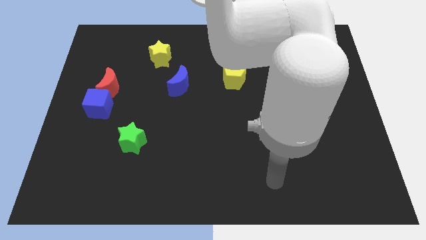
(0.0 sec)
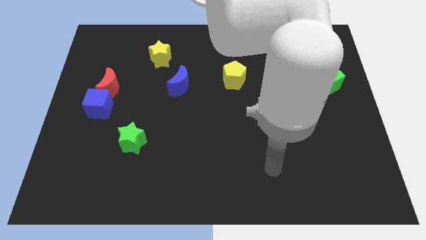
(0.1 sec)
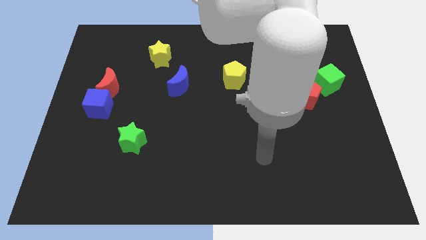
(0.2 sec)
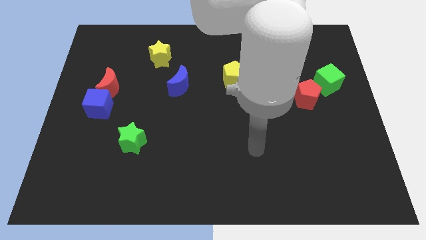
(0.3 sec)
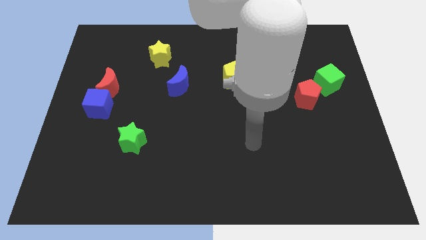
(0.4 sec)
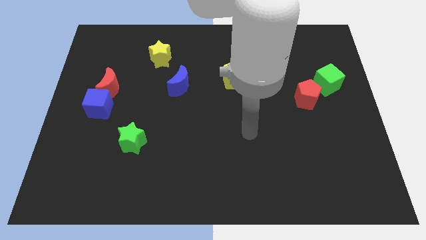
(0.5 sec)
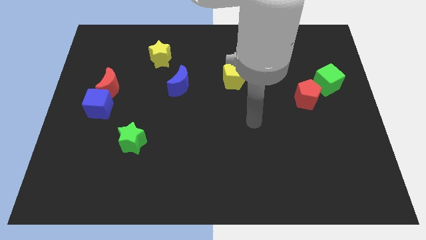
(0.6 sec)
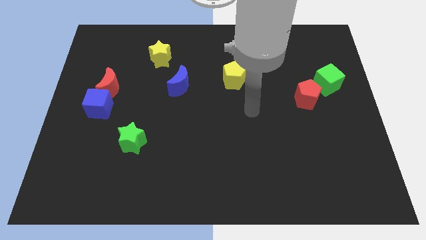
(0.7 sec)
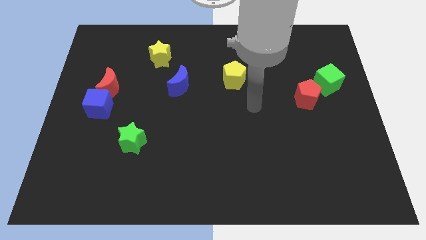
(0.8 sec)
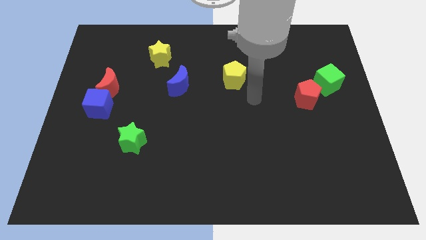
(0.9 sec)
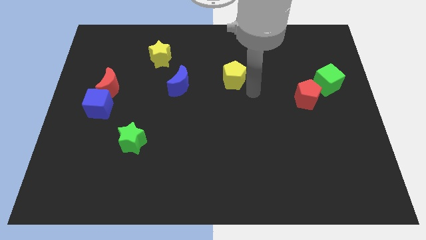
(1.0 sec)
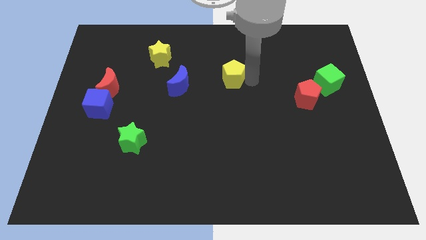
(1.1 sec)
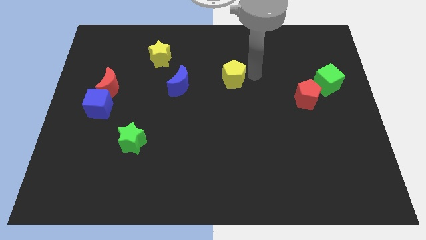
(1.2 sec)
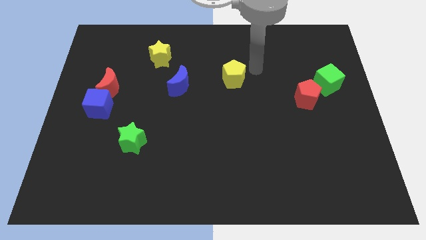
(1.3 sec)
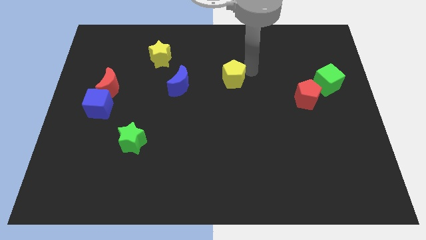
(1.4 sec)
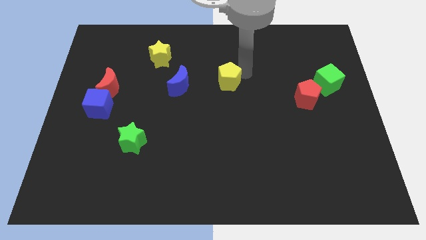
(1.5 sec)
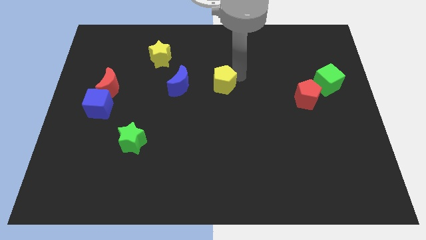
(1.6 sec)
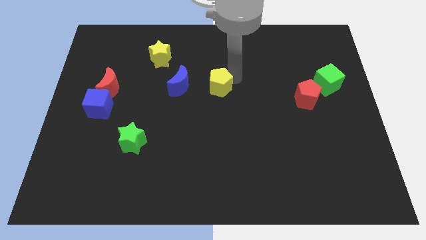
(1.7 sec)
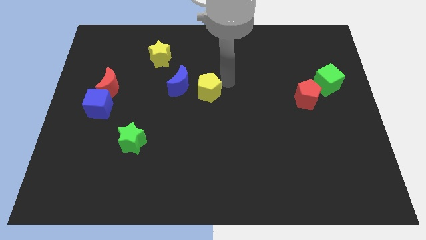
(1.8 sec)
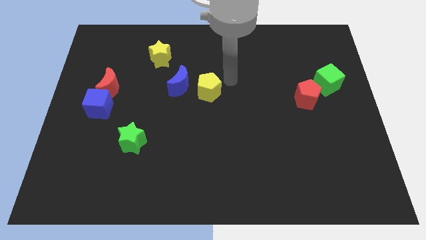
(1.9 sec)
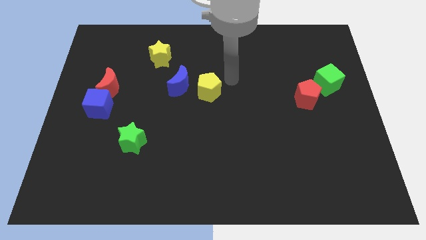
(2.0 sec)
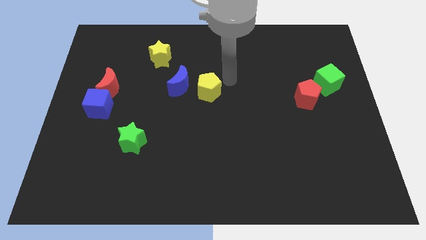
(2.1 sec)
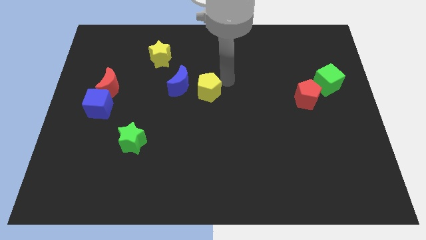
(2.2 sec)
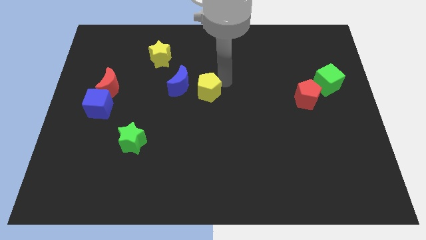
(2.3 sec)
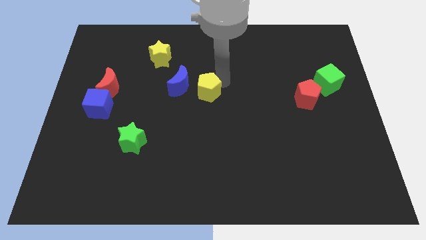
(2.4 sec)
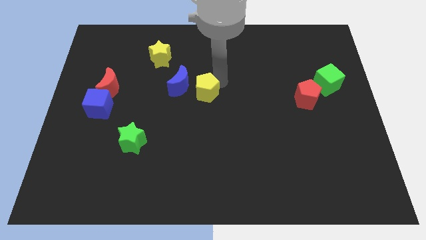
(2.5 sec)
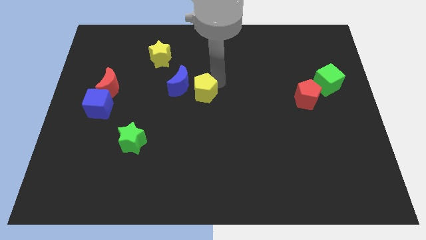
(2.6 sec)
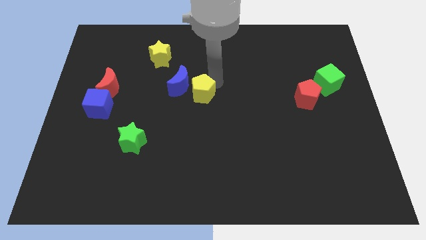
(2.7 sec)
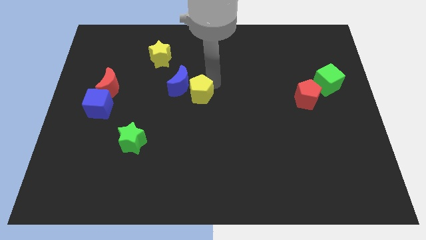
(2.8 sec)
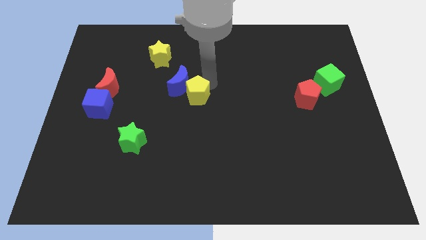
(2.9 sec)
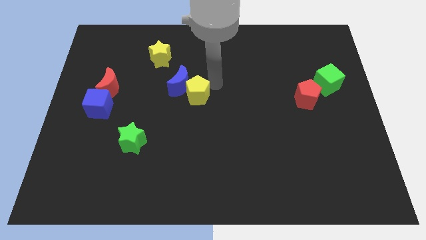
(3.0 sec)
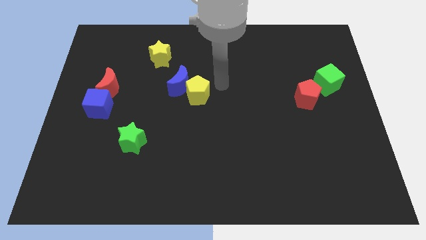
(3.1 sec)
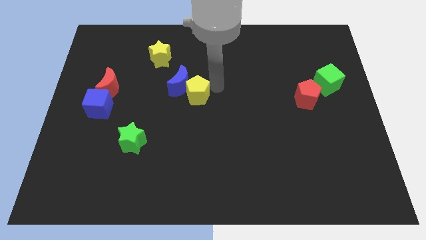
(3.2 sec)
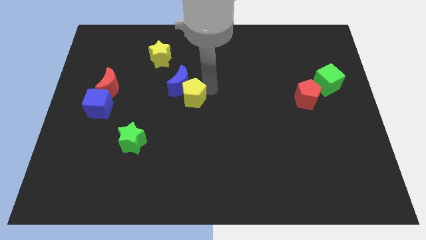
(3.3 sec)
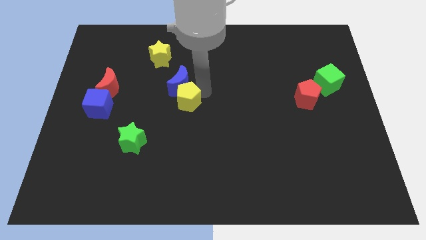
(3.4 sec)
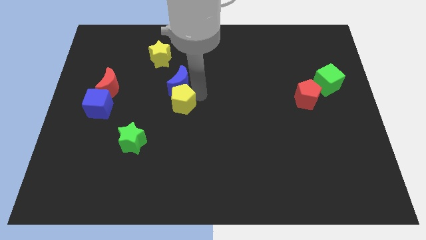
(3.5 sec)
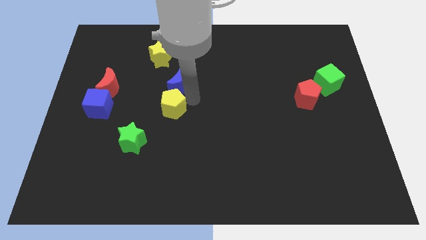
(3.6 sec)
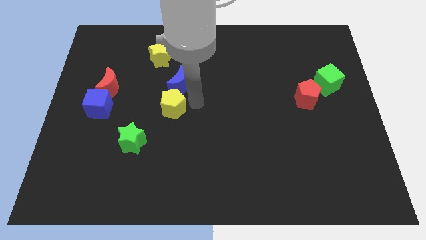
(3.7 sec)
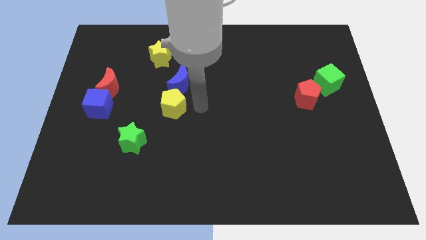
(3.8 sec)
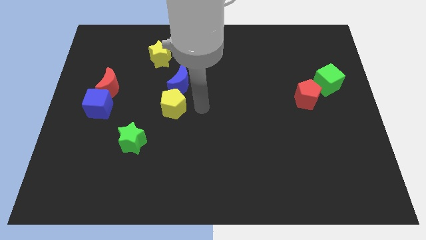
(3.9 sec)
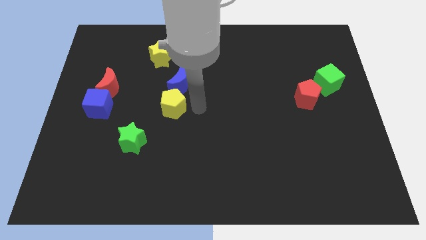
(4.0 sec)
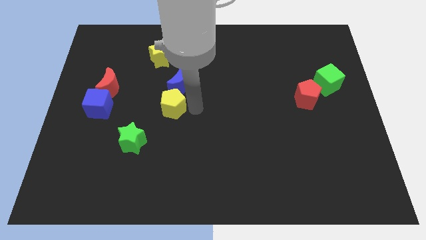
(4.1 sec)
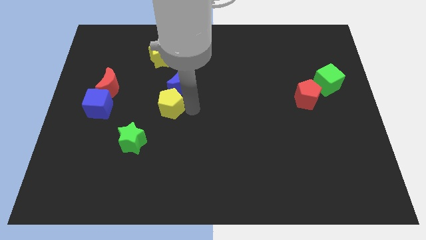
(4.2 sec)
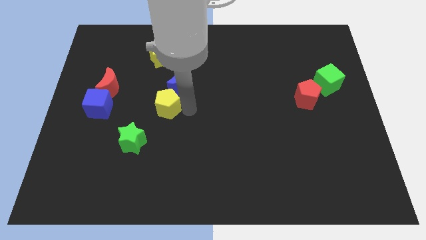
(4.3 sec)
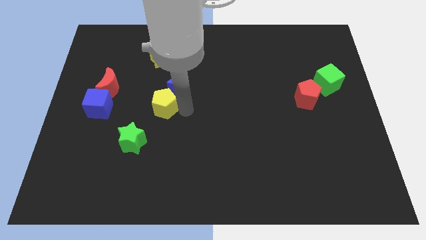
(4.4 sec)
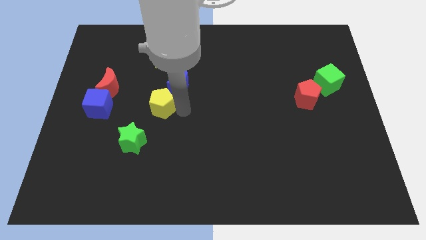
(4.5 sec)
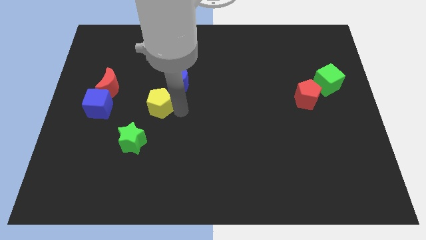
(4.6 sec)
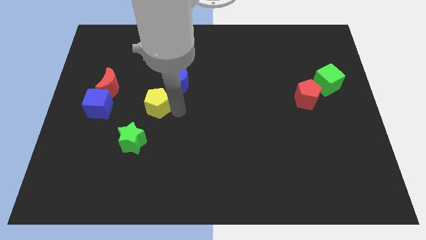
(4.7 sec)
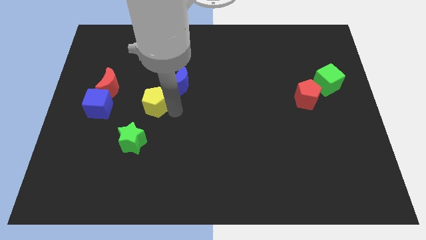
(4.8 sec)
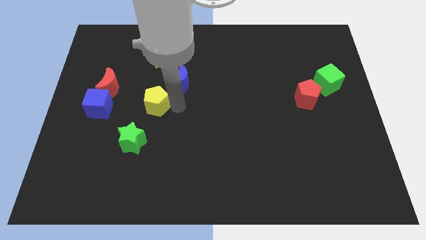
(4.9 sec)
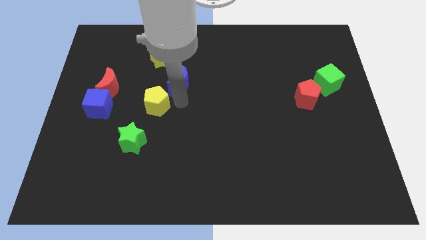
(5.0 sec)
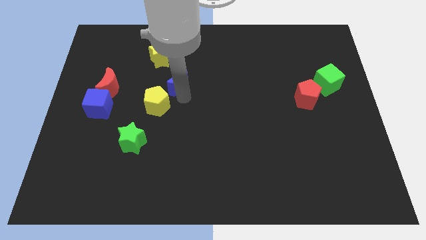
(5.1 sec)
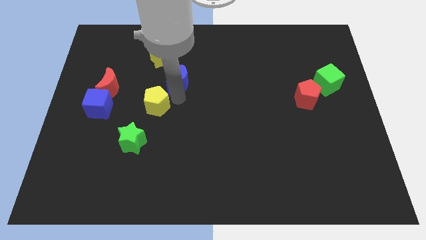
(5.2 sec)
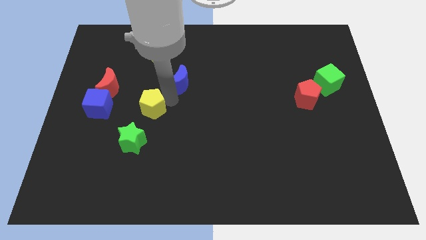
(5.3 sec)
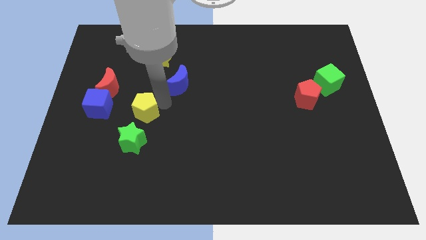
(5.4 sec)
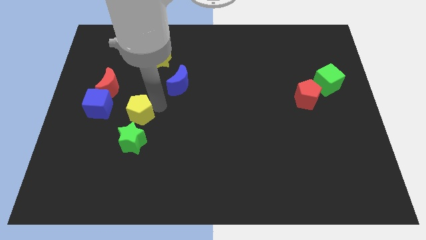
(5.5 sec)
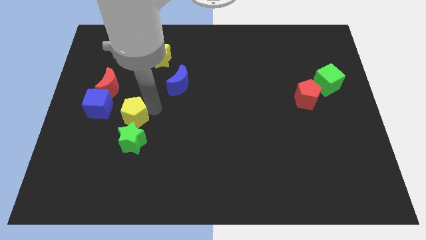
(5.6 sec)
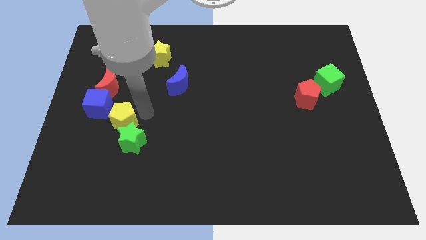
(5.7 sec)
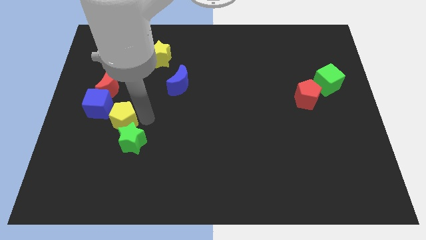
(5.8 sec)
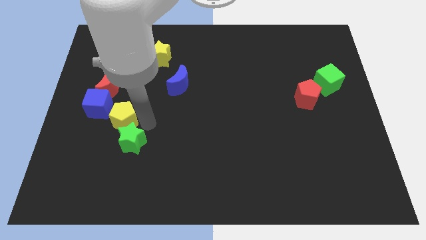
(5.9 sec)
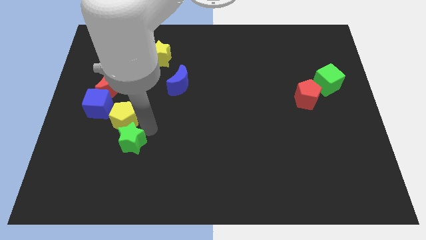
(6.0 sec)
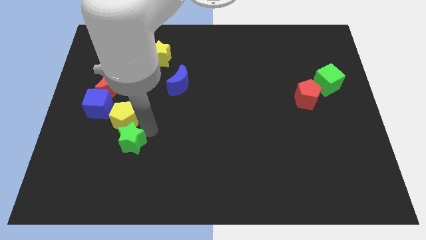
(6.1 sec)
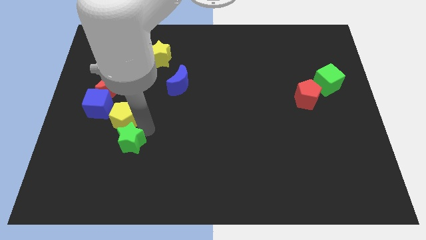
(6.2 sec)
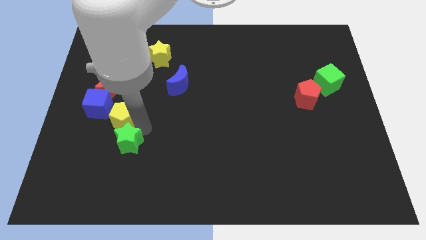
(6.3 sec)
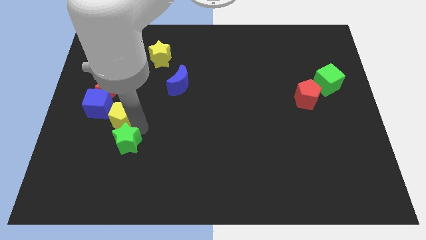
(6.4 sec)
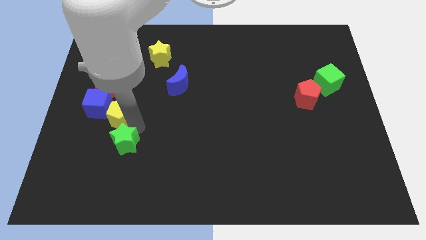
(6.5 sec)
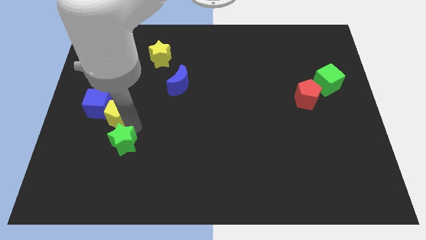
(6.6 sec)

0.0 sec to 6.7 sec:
slide the yellow pentagon close to the blue cube

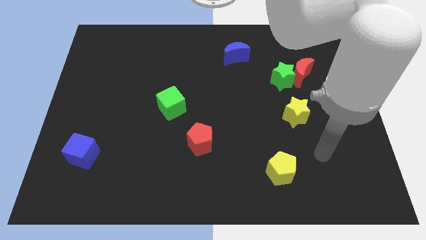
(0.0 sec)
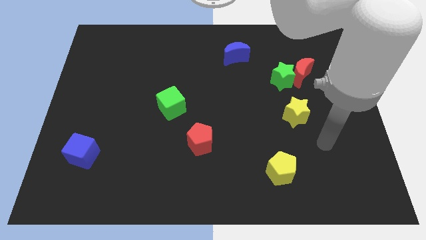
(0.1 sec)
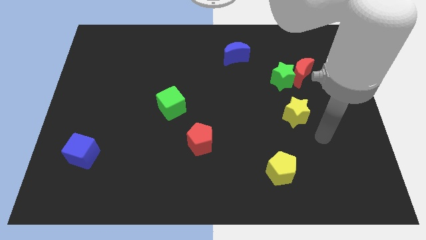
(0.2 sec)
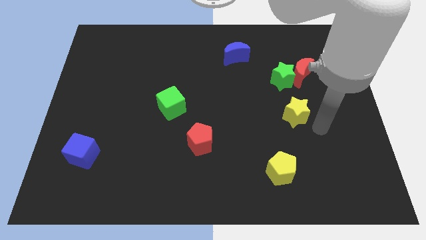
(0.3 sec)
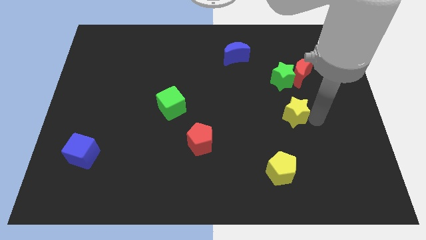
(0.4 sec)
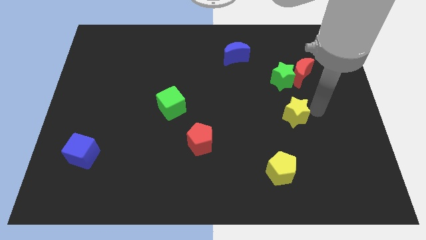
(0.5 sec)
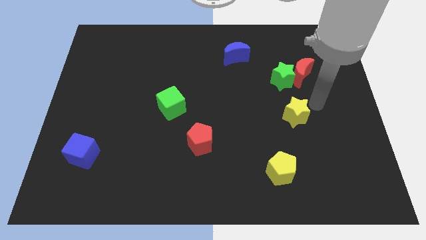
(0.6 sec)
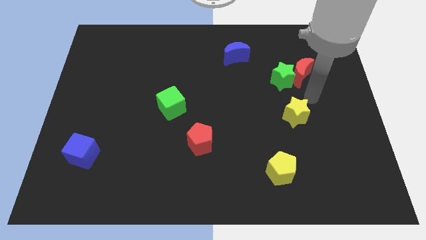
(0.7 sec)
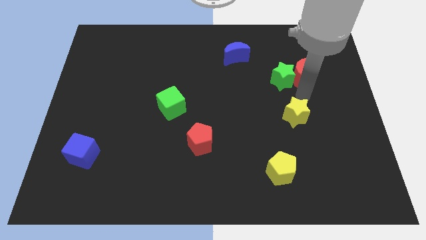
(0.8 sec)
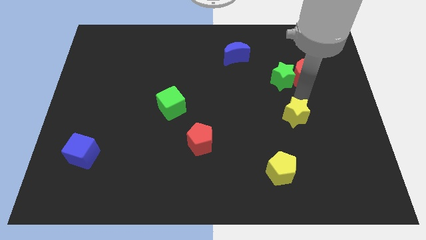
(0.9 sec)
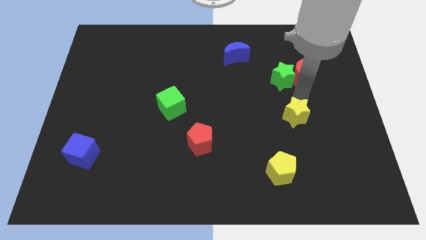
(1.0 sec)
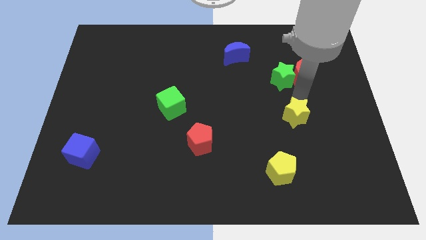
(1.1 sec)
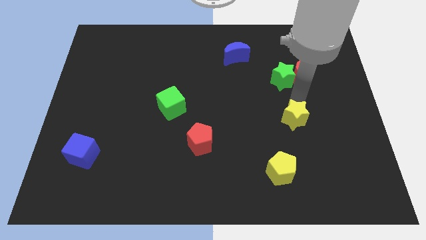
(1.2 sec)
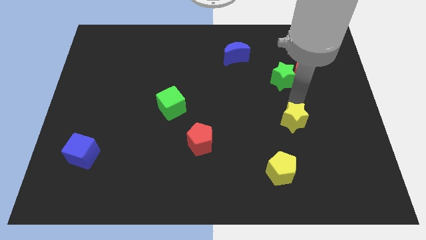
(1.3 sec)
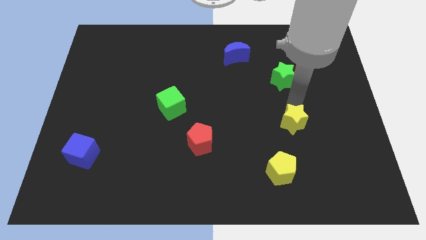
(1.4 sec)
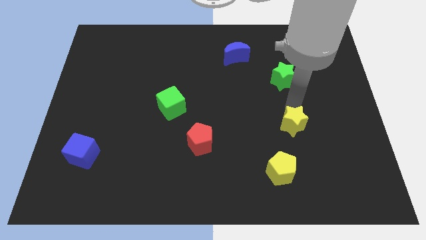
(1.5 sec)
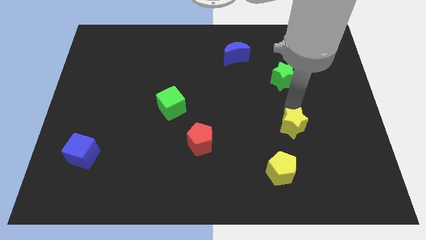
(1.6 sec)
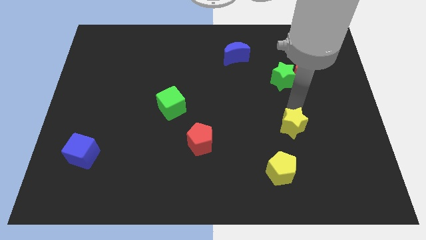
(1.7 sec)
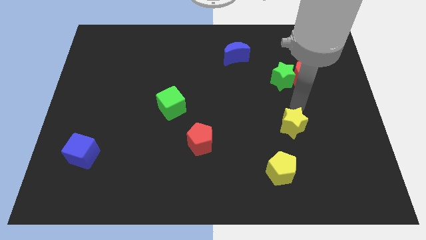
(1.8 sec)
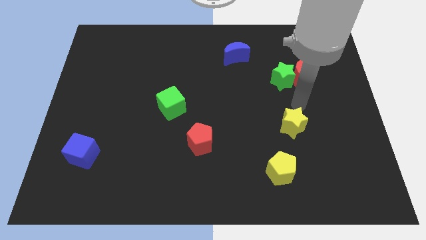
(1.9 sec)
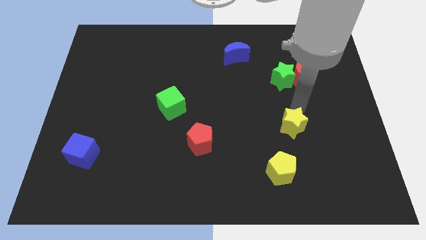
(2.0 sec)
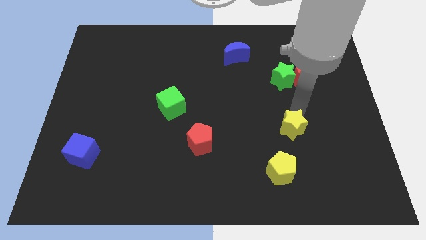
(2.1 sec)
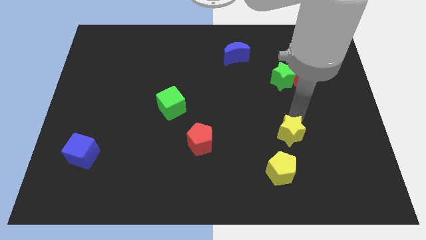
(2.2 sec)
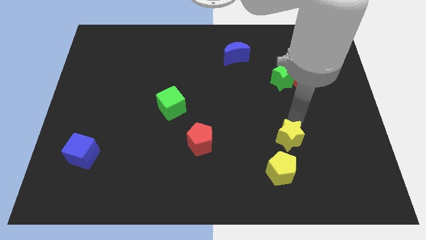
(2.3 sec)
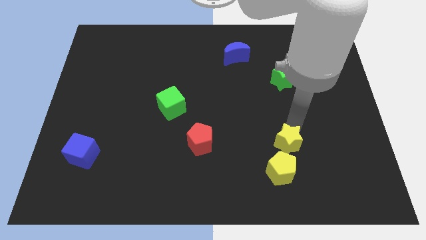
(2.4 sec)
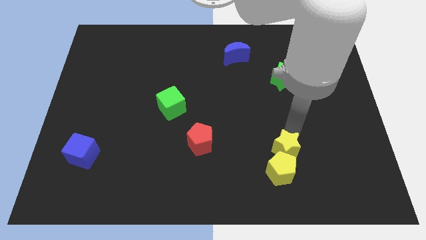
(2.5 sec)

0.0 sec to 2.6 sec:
push the yellow star to the yellow pentagon
